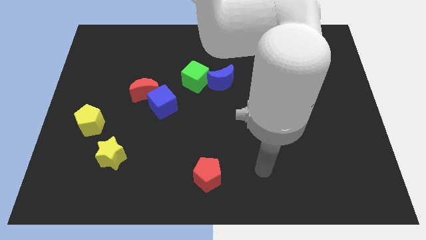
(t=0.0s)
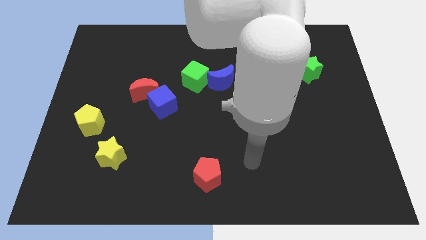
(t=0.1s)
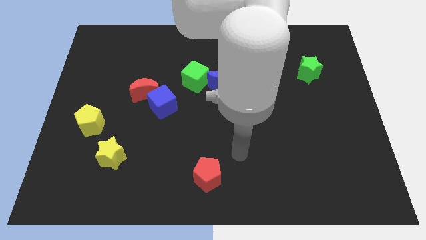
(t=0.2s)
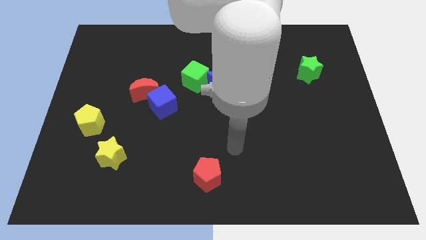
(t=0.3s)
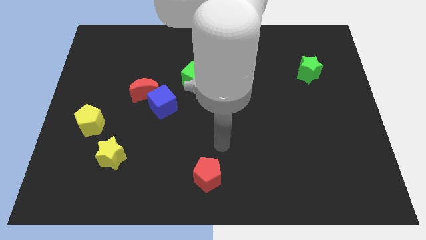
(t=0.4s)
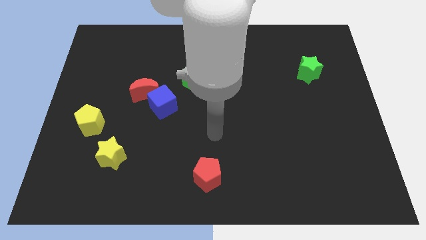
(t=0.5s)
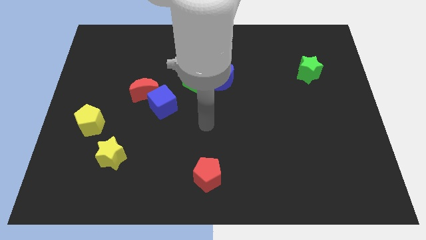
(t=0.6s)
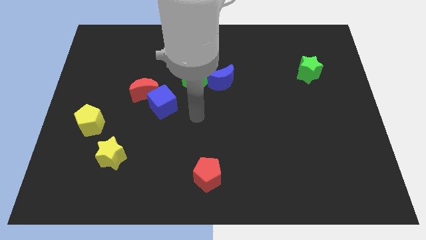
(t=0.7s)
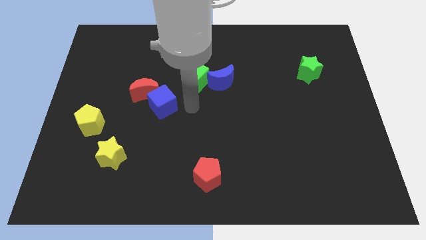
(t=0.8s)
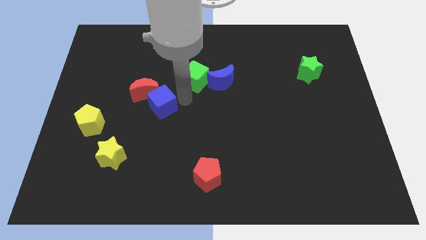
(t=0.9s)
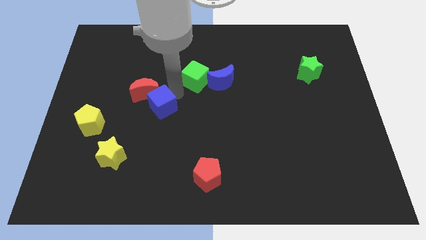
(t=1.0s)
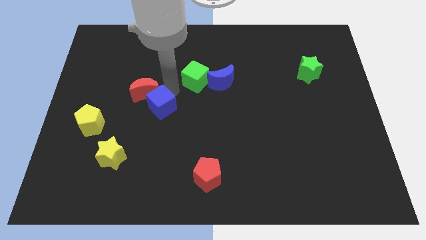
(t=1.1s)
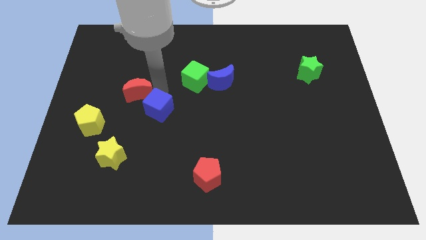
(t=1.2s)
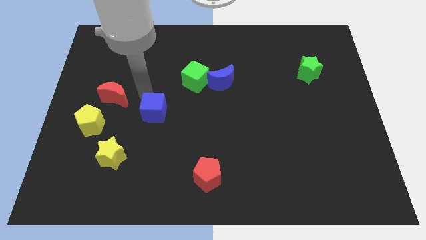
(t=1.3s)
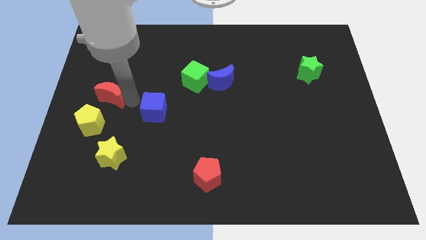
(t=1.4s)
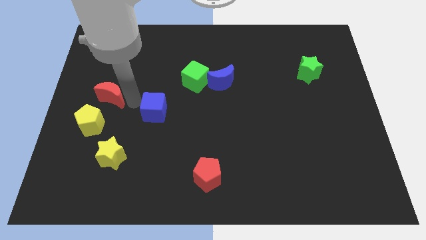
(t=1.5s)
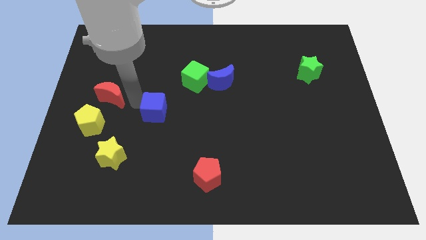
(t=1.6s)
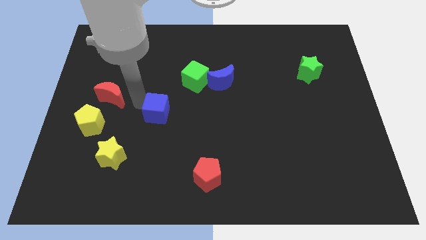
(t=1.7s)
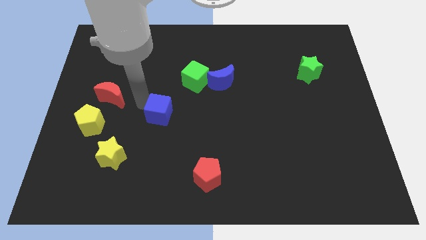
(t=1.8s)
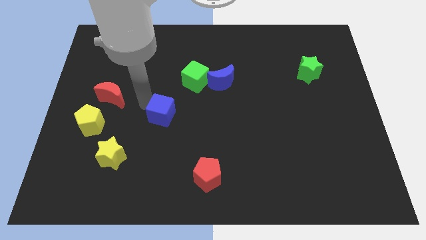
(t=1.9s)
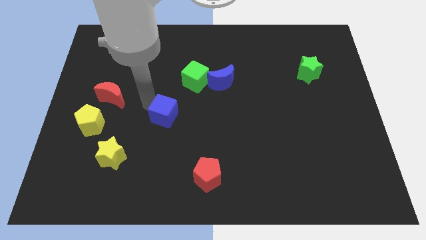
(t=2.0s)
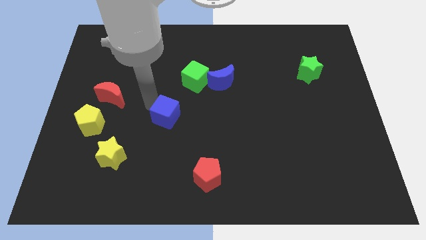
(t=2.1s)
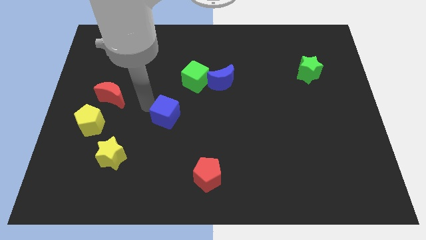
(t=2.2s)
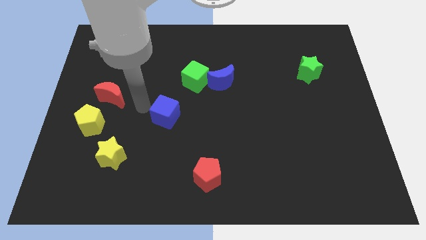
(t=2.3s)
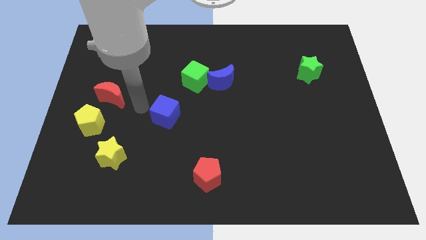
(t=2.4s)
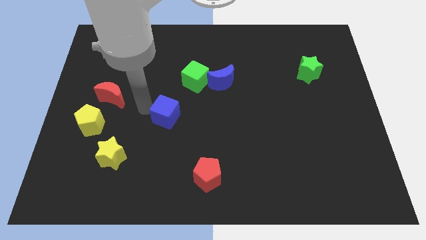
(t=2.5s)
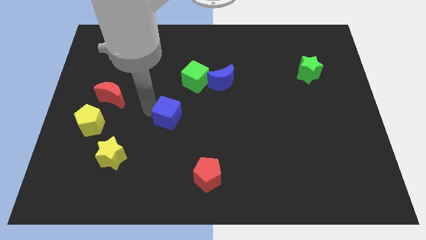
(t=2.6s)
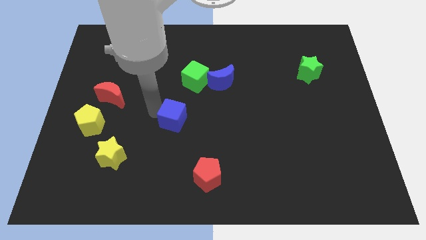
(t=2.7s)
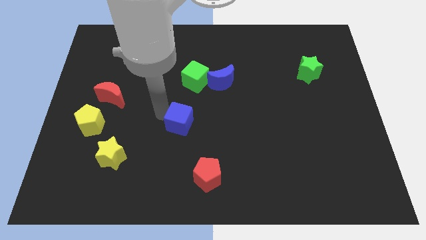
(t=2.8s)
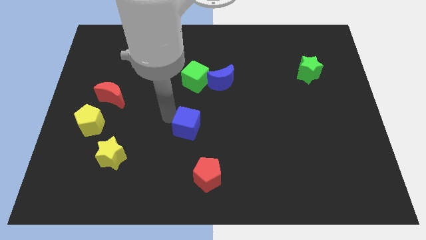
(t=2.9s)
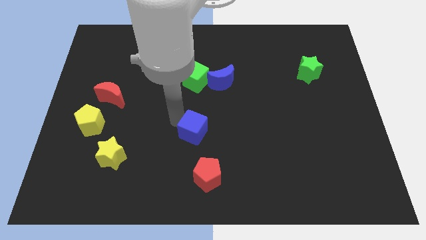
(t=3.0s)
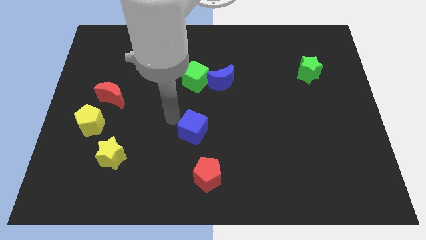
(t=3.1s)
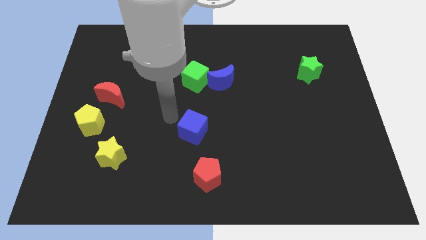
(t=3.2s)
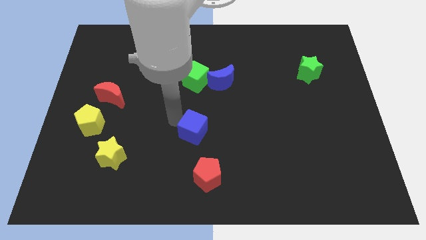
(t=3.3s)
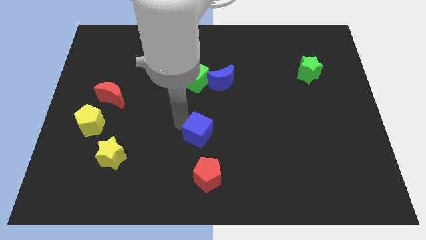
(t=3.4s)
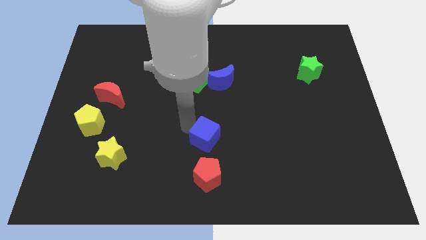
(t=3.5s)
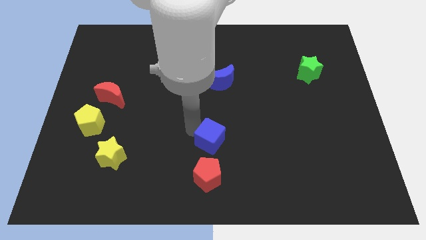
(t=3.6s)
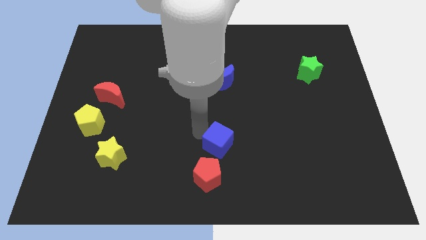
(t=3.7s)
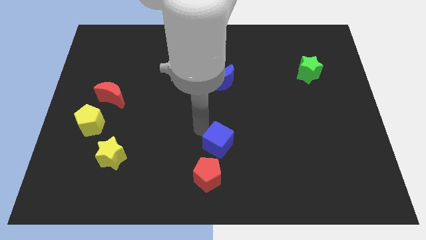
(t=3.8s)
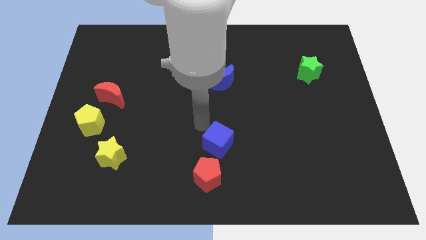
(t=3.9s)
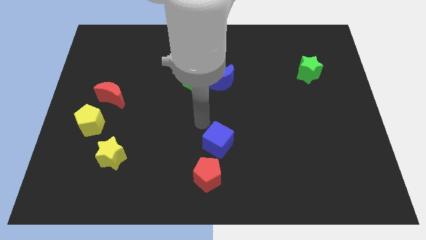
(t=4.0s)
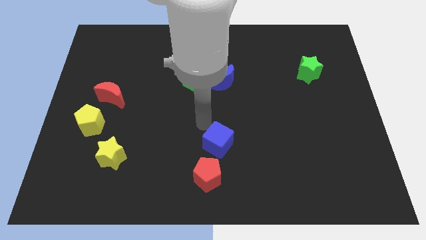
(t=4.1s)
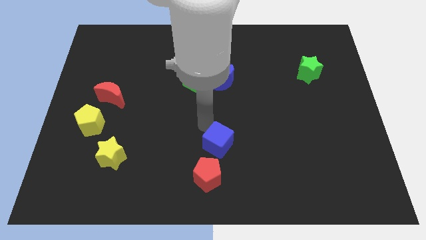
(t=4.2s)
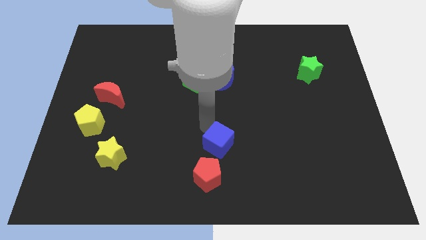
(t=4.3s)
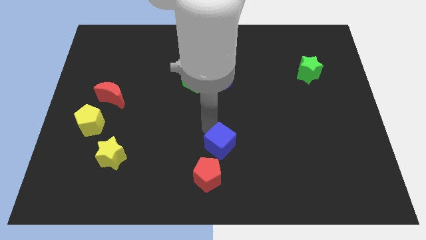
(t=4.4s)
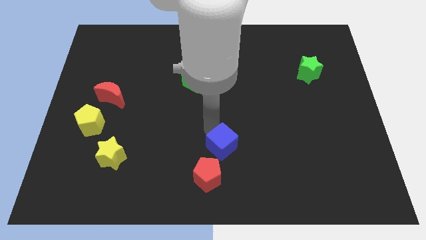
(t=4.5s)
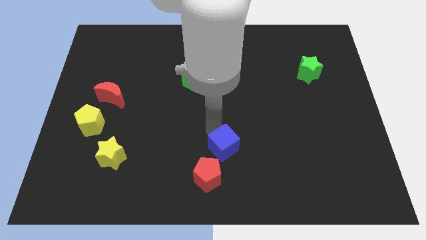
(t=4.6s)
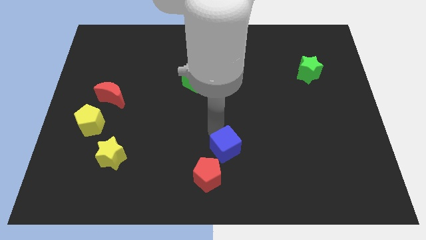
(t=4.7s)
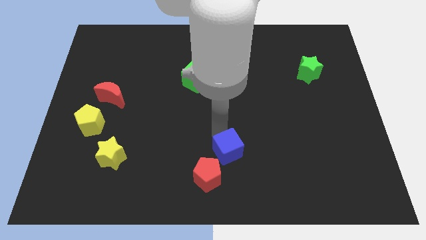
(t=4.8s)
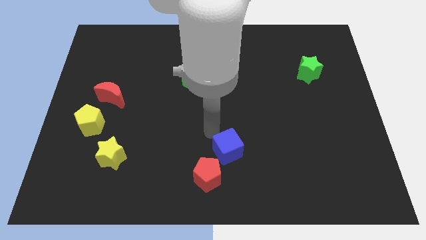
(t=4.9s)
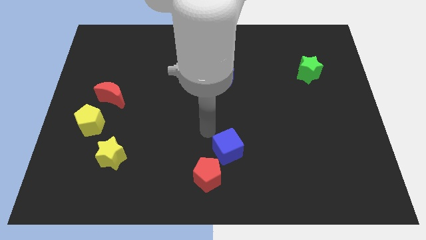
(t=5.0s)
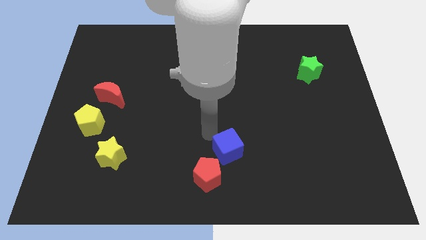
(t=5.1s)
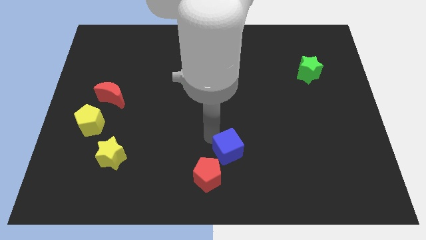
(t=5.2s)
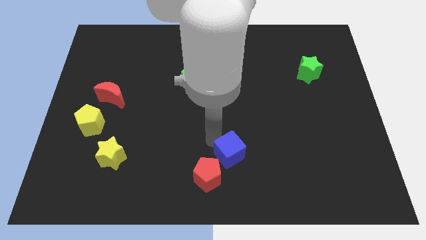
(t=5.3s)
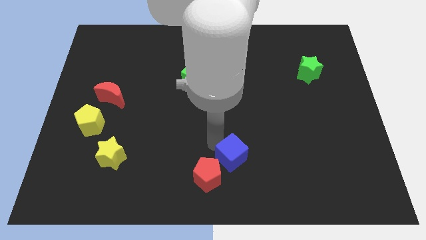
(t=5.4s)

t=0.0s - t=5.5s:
slide the blue cube to the right side of the red pentagon

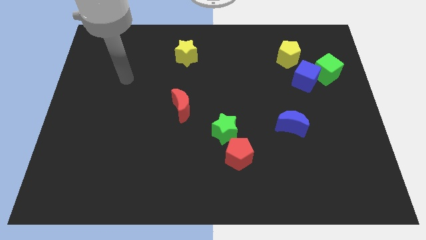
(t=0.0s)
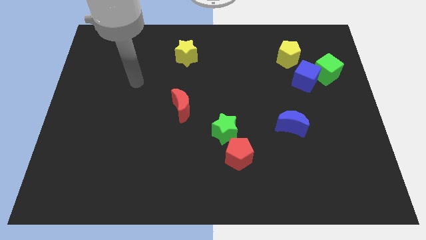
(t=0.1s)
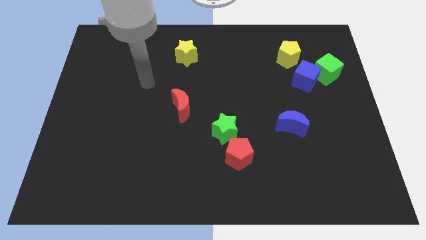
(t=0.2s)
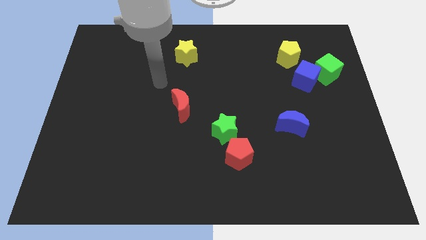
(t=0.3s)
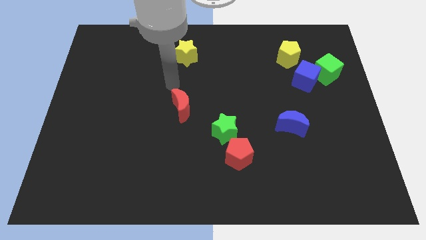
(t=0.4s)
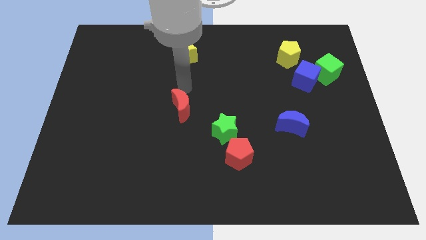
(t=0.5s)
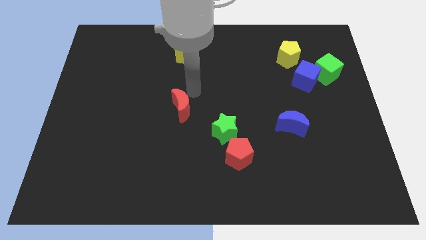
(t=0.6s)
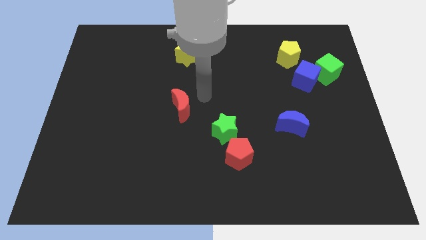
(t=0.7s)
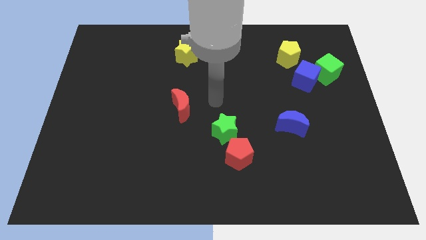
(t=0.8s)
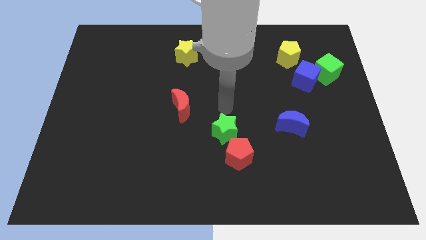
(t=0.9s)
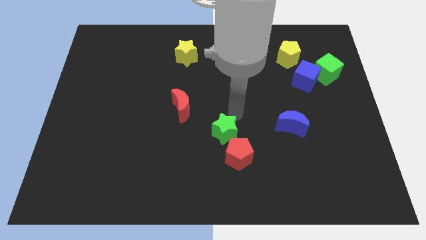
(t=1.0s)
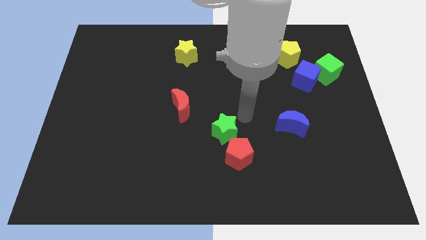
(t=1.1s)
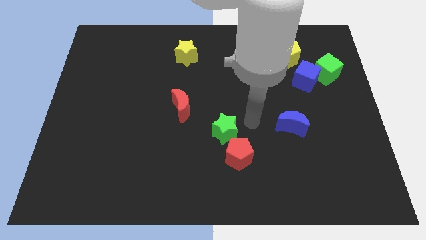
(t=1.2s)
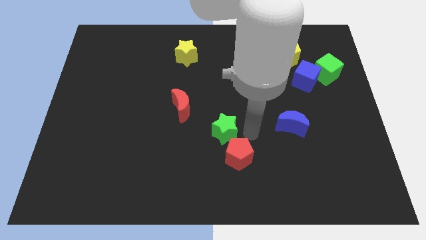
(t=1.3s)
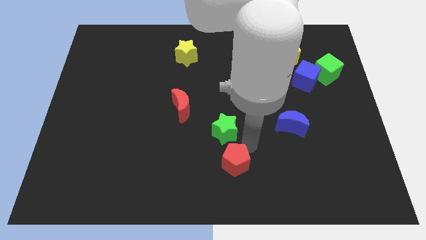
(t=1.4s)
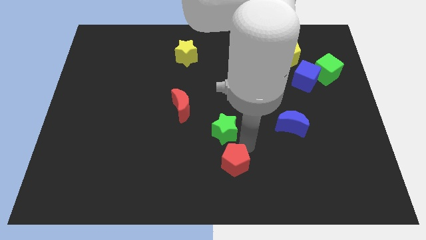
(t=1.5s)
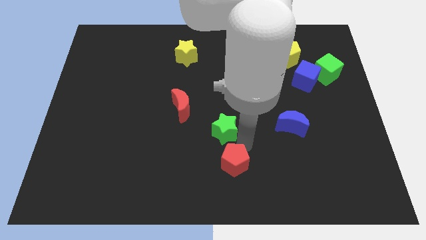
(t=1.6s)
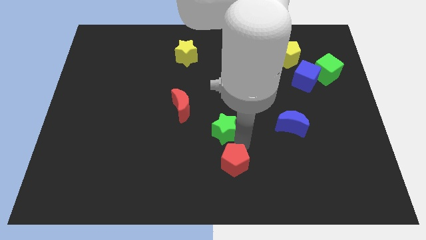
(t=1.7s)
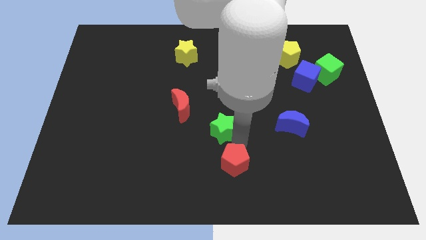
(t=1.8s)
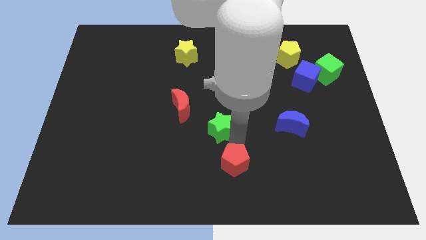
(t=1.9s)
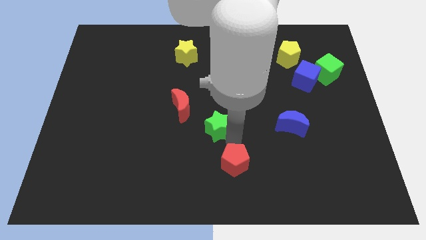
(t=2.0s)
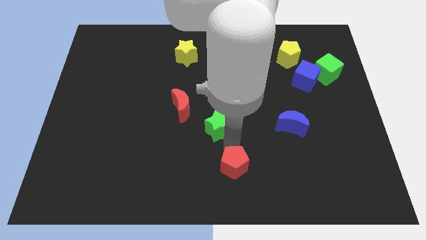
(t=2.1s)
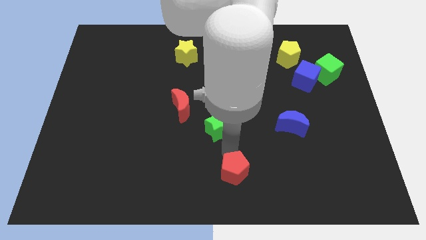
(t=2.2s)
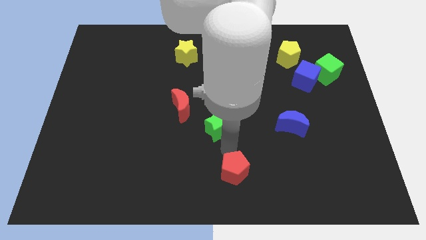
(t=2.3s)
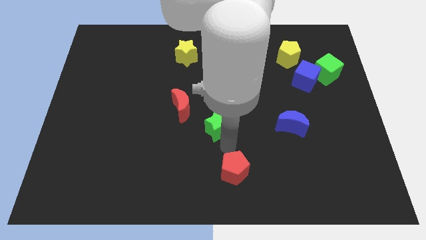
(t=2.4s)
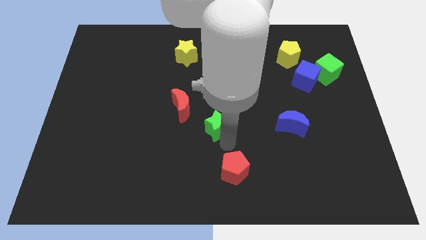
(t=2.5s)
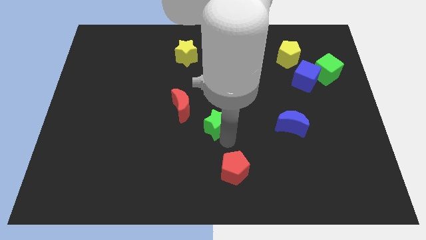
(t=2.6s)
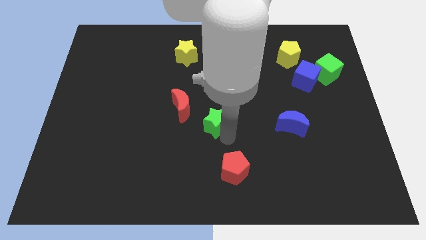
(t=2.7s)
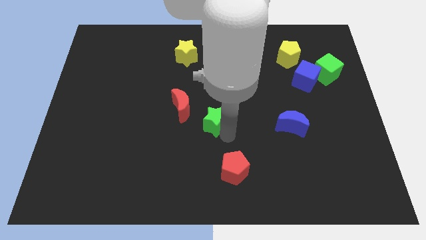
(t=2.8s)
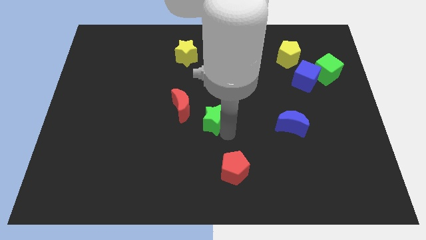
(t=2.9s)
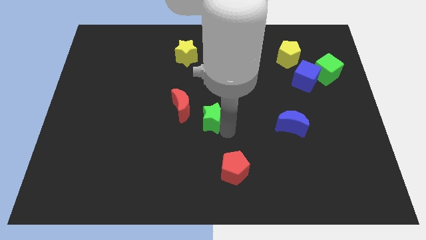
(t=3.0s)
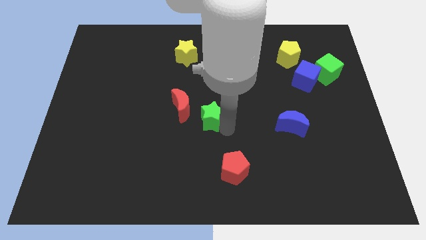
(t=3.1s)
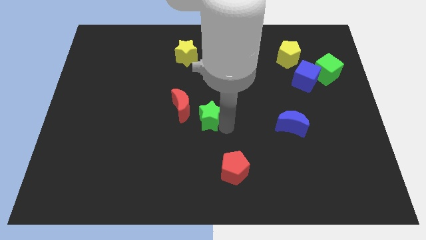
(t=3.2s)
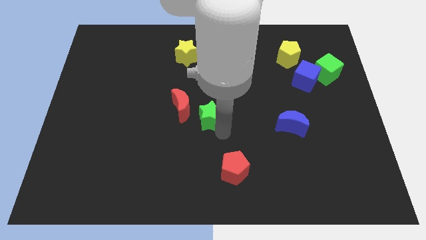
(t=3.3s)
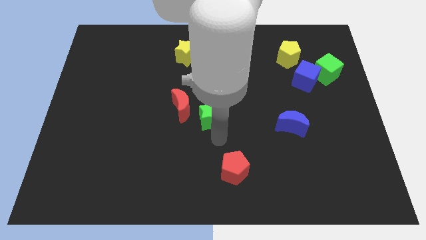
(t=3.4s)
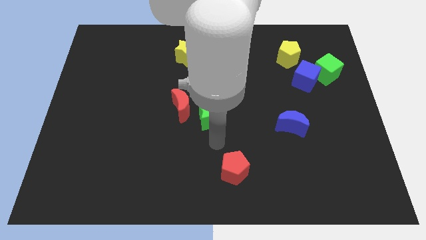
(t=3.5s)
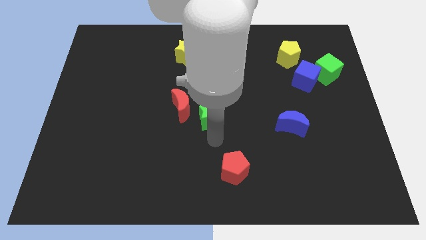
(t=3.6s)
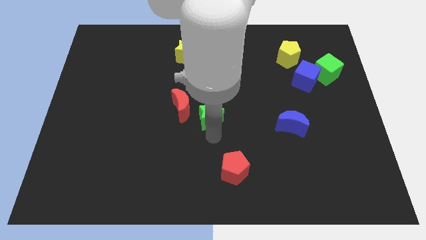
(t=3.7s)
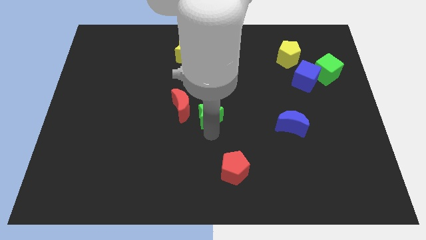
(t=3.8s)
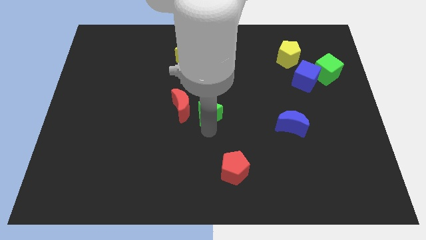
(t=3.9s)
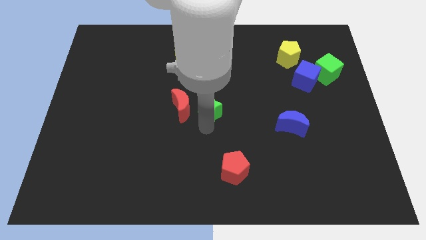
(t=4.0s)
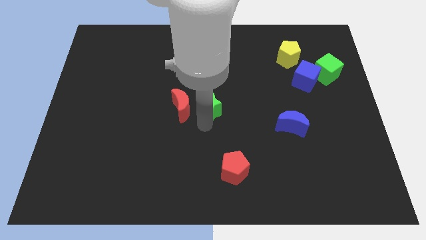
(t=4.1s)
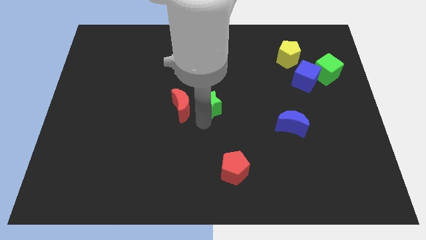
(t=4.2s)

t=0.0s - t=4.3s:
slide the green star to the top right side of the red moon
